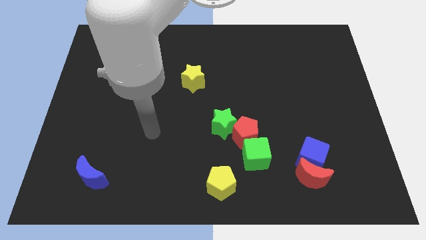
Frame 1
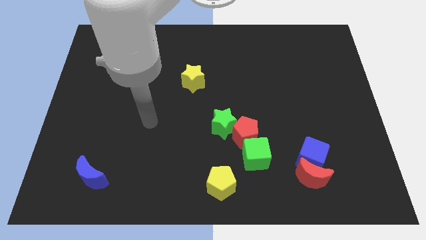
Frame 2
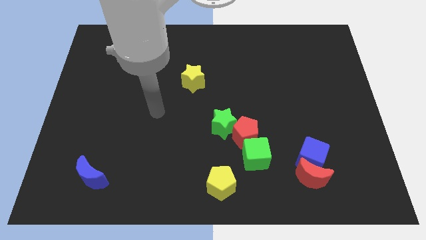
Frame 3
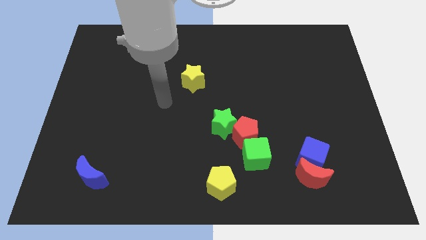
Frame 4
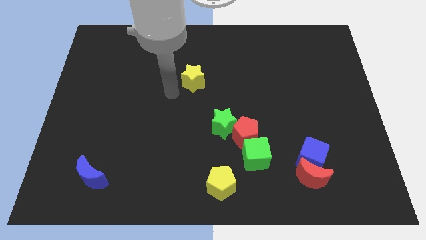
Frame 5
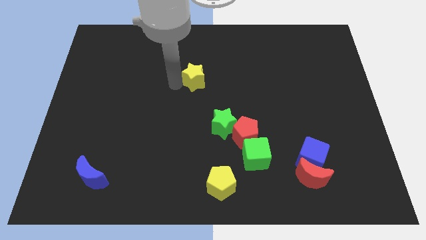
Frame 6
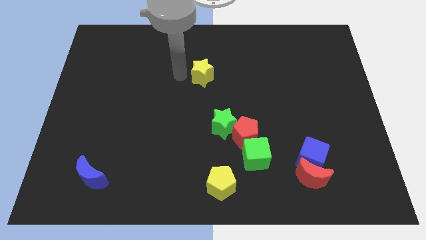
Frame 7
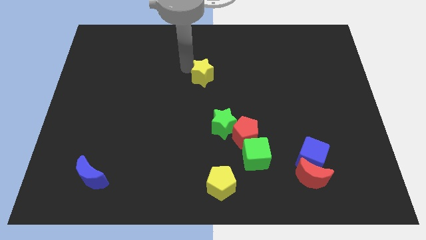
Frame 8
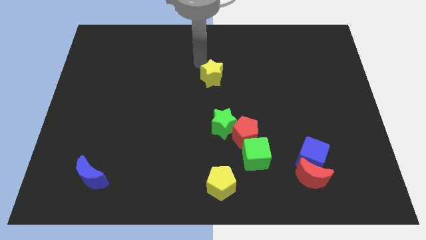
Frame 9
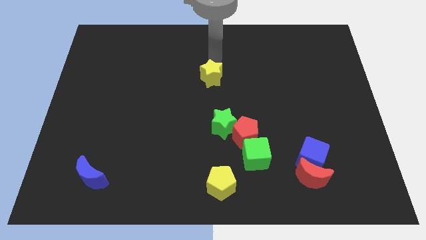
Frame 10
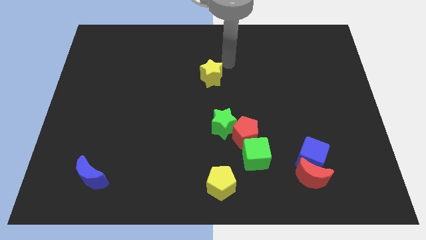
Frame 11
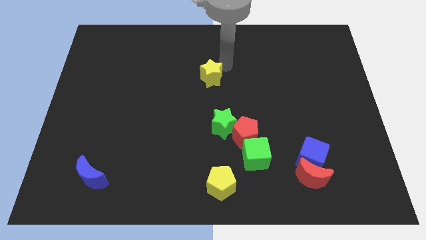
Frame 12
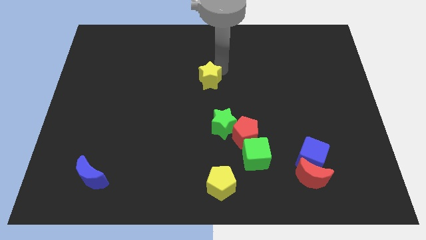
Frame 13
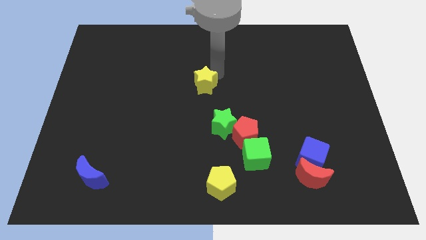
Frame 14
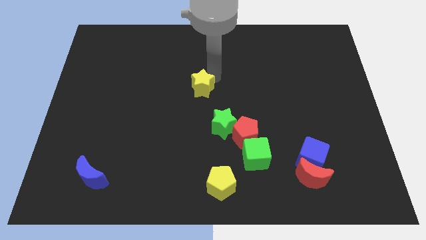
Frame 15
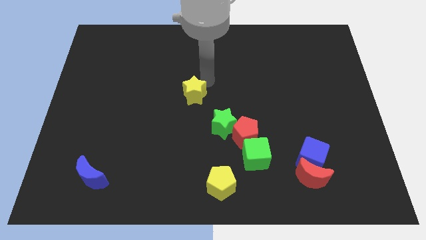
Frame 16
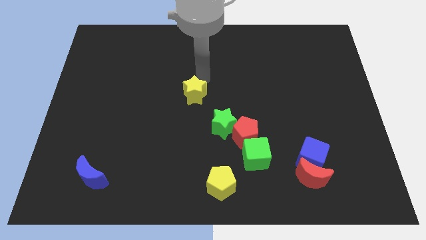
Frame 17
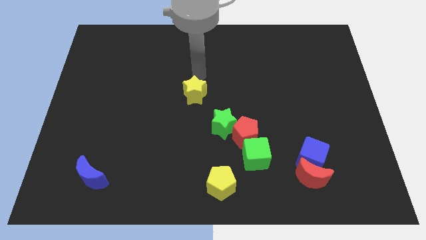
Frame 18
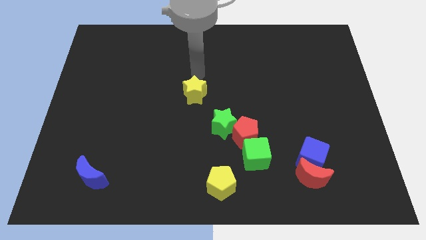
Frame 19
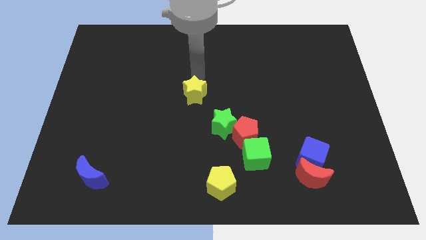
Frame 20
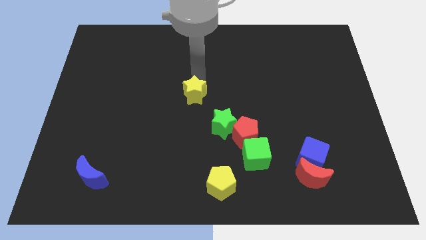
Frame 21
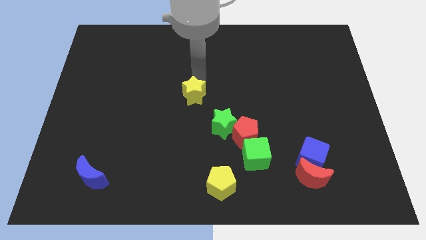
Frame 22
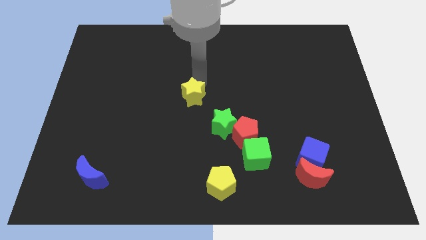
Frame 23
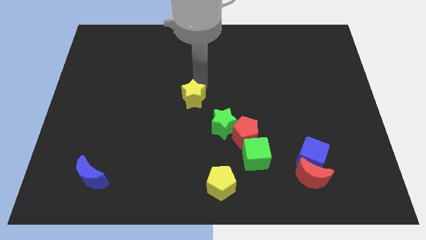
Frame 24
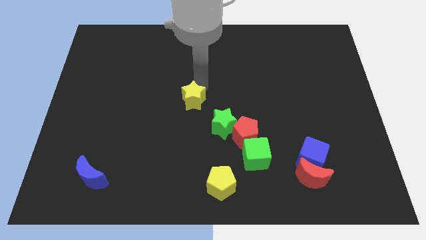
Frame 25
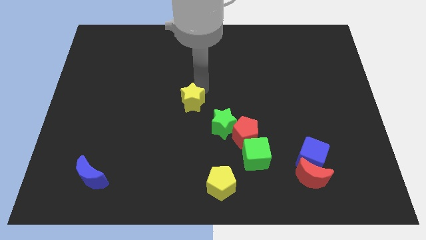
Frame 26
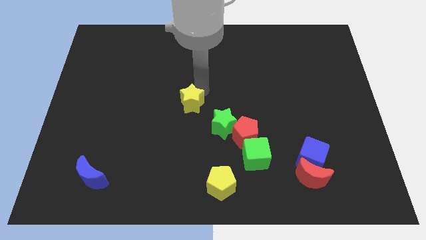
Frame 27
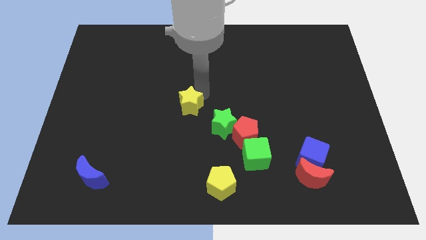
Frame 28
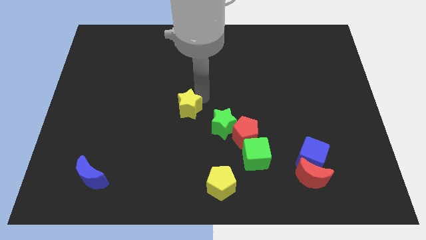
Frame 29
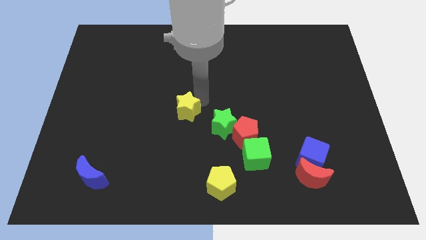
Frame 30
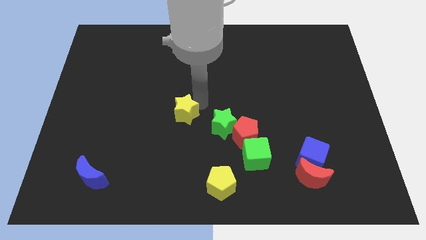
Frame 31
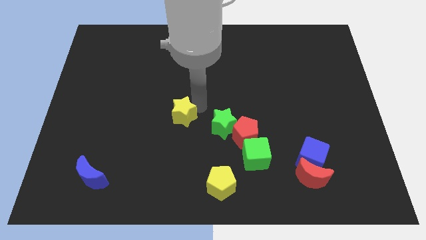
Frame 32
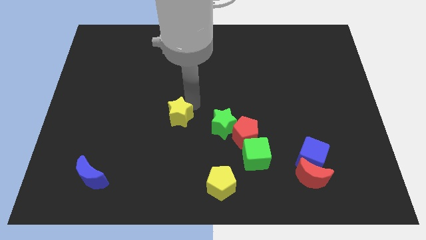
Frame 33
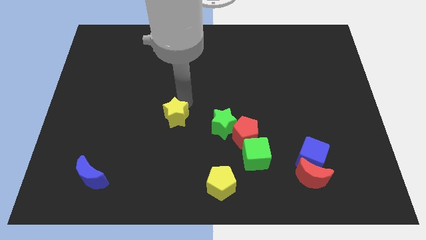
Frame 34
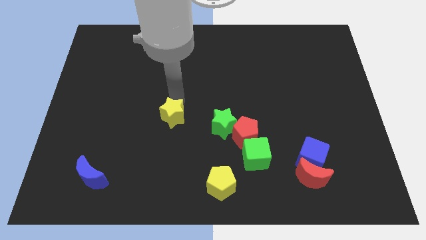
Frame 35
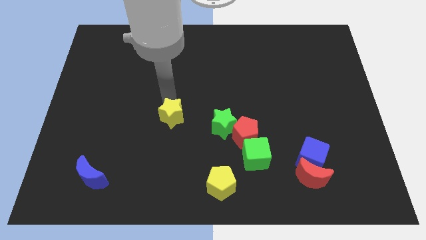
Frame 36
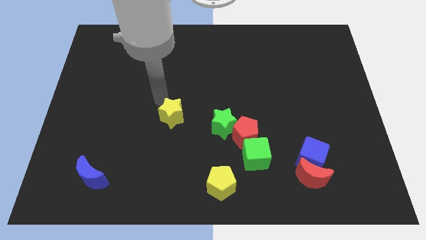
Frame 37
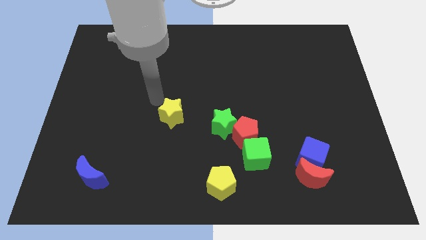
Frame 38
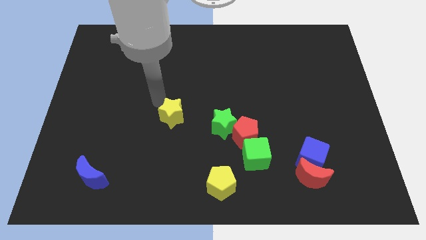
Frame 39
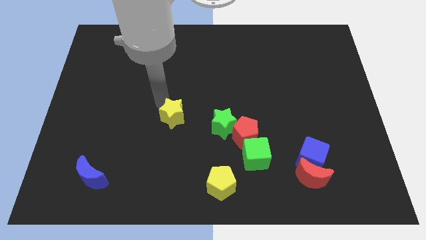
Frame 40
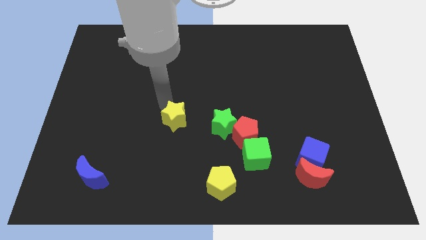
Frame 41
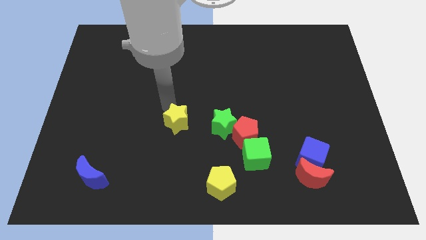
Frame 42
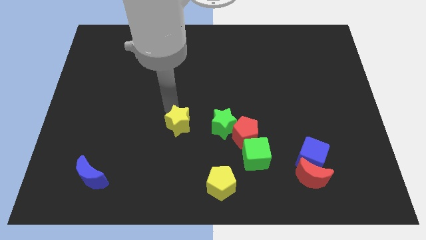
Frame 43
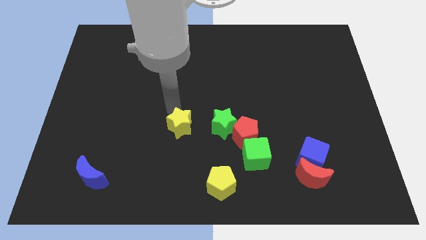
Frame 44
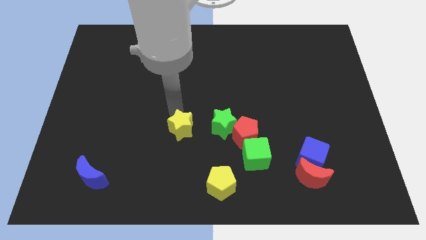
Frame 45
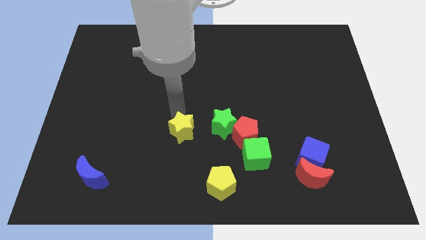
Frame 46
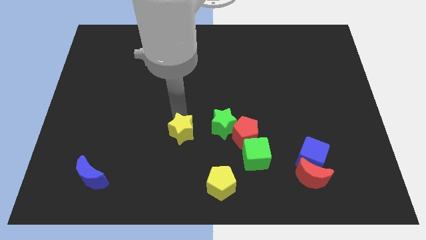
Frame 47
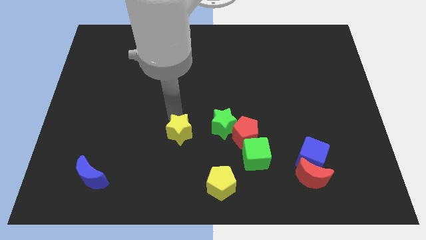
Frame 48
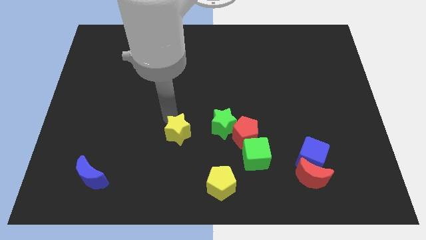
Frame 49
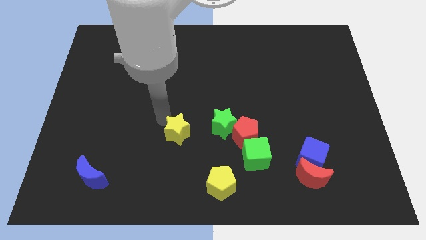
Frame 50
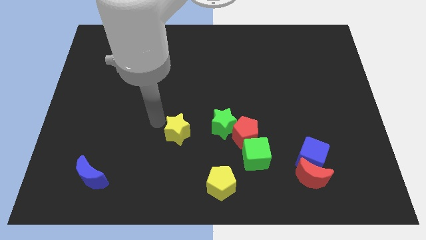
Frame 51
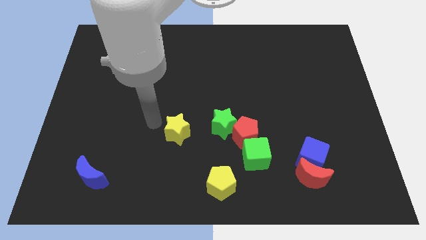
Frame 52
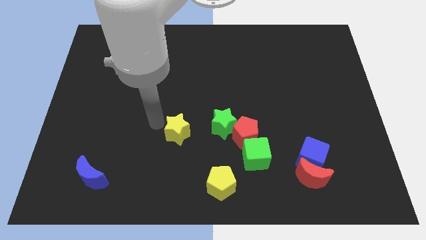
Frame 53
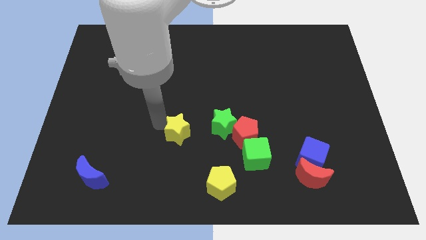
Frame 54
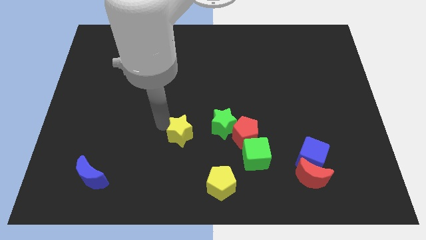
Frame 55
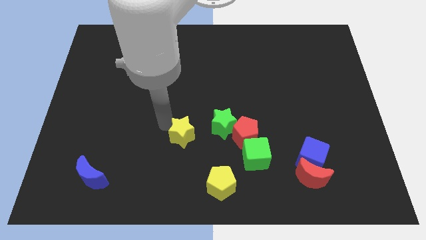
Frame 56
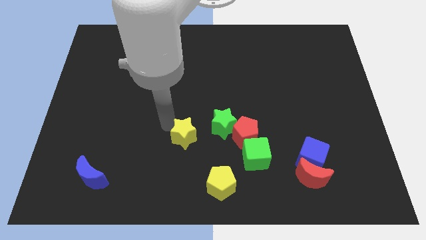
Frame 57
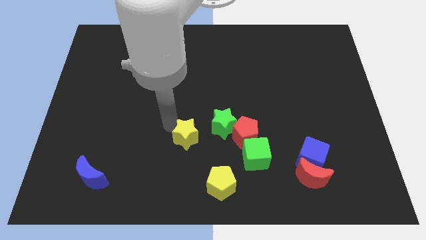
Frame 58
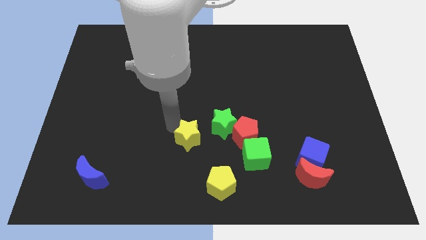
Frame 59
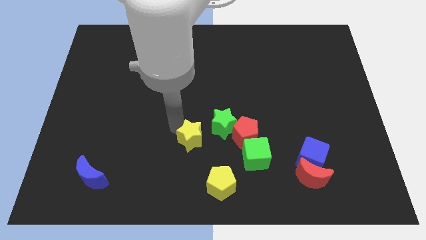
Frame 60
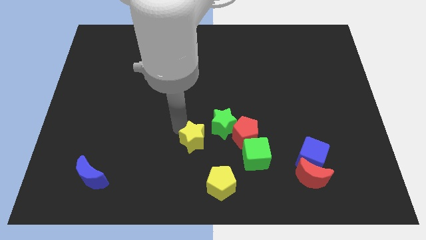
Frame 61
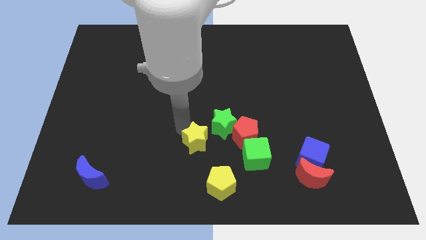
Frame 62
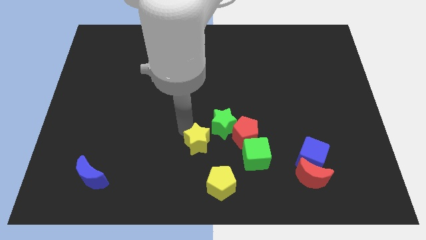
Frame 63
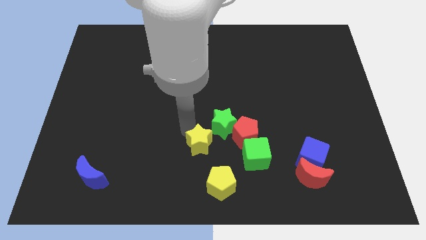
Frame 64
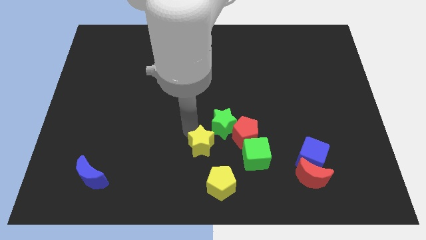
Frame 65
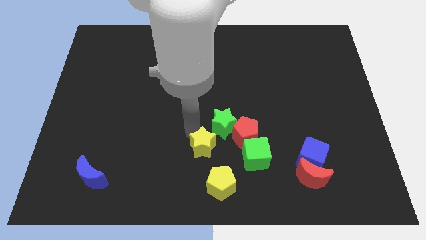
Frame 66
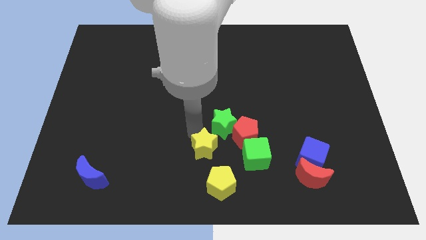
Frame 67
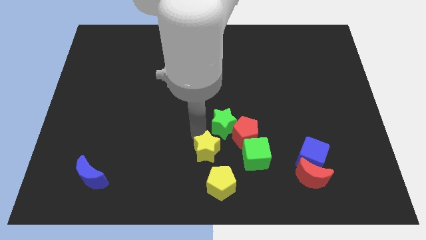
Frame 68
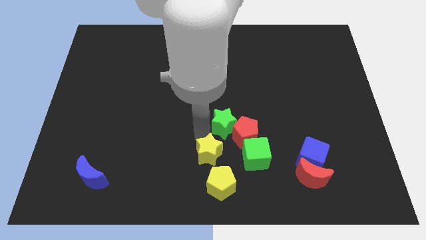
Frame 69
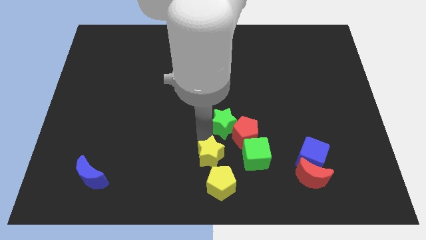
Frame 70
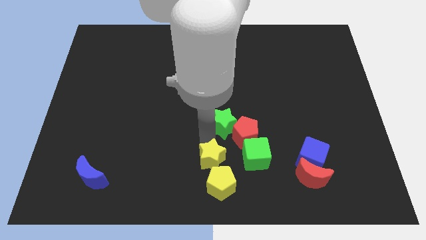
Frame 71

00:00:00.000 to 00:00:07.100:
slide the yellow star towards the yellow pentagon
